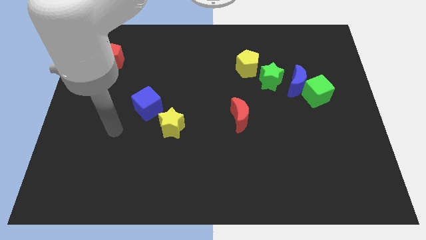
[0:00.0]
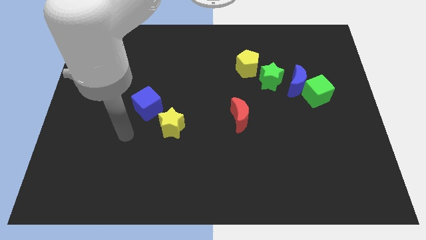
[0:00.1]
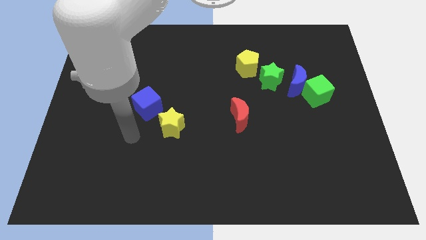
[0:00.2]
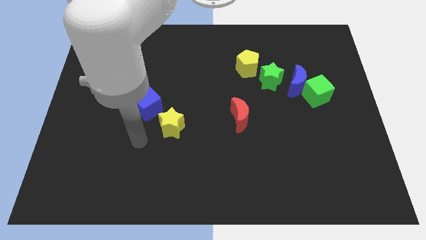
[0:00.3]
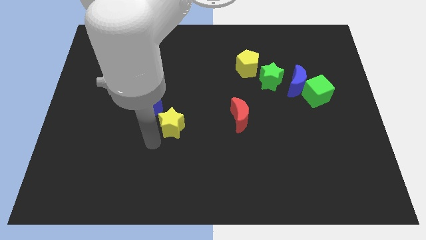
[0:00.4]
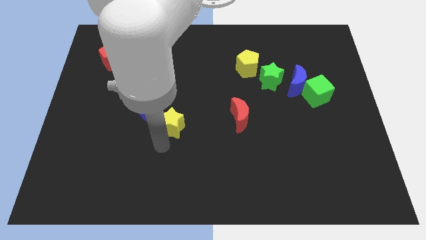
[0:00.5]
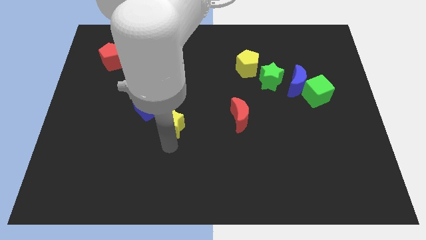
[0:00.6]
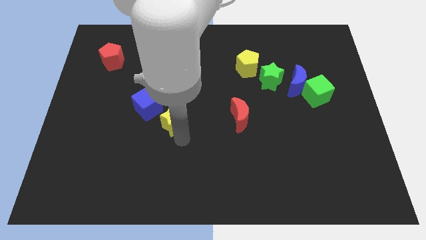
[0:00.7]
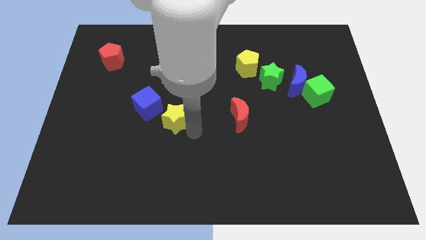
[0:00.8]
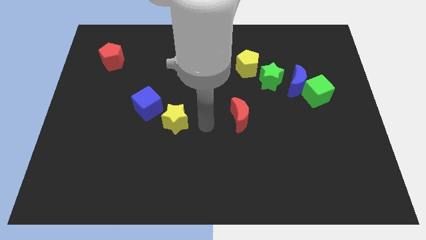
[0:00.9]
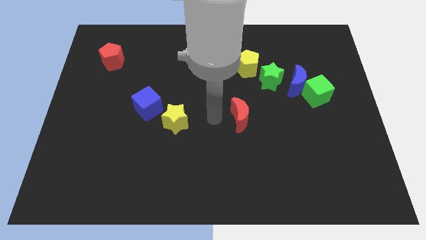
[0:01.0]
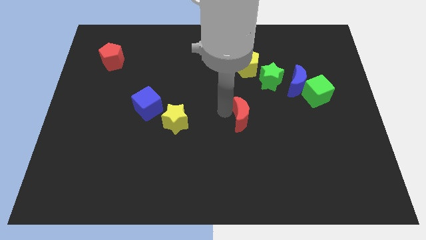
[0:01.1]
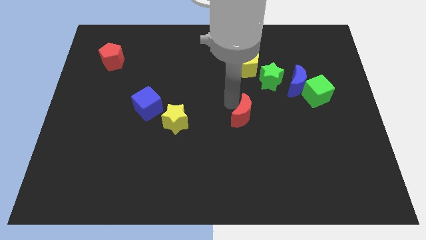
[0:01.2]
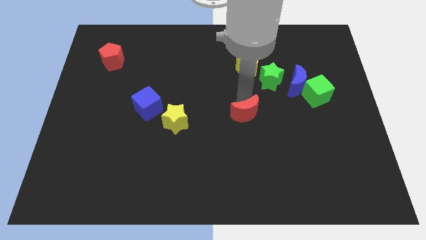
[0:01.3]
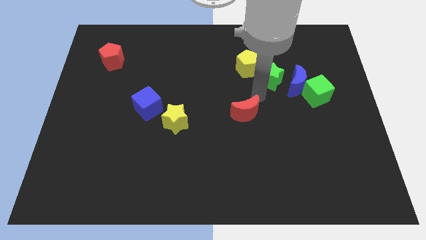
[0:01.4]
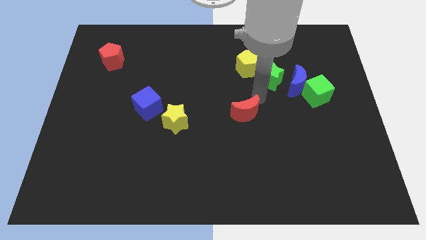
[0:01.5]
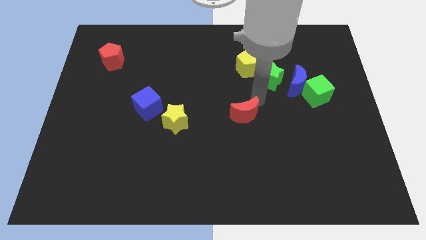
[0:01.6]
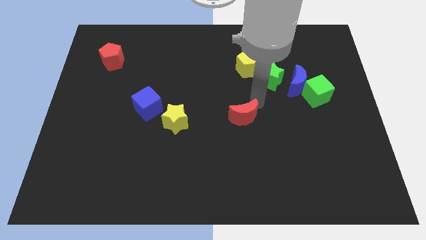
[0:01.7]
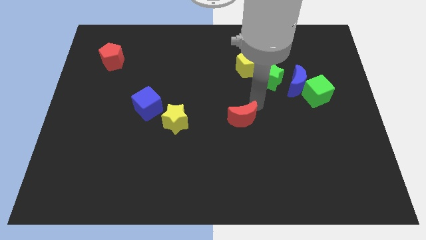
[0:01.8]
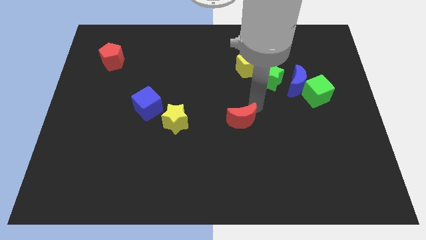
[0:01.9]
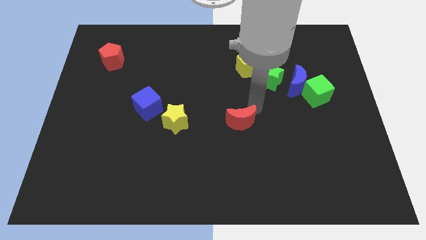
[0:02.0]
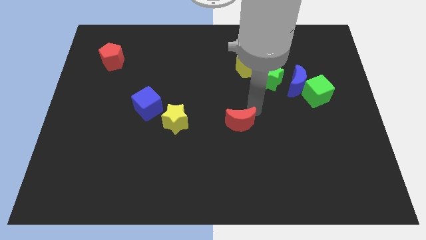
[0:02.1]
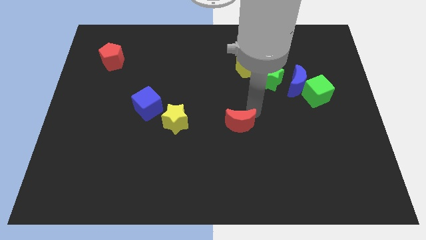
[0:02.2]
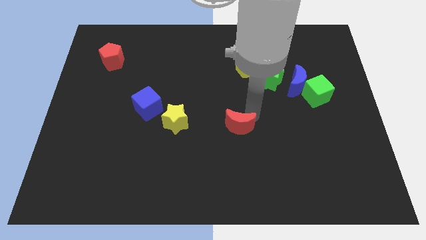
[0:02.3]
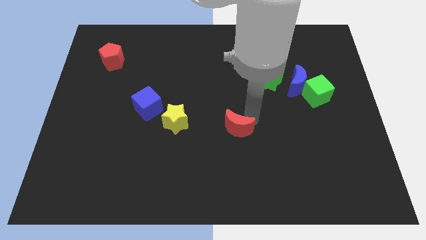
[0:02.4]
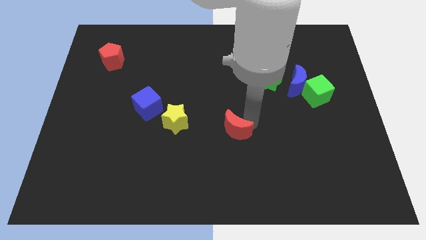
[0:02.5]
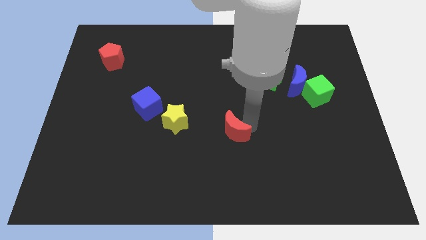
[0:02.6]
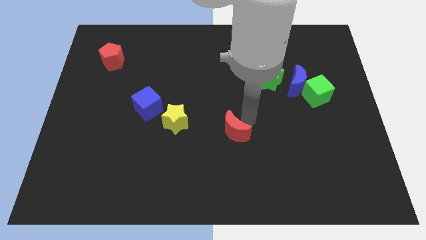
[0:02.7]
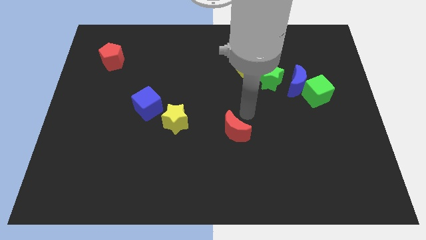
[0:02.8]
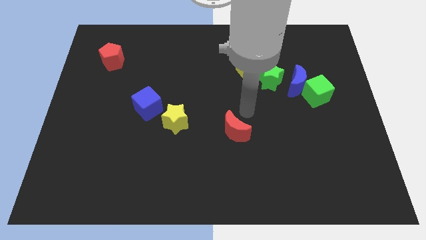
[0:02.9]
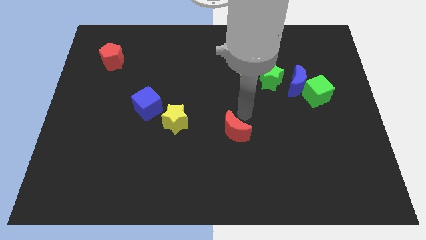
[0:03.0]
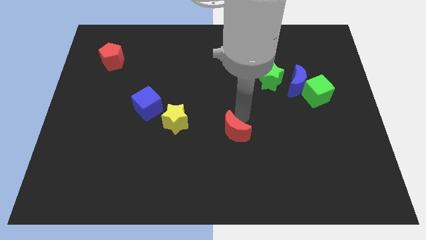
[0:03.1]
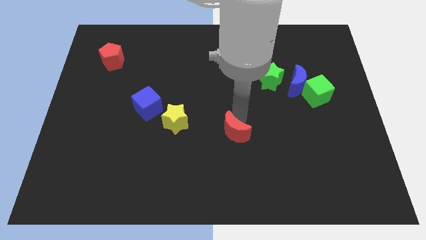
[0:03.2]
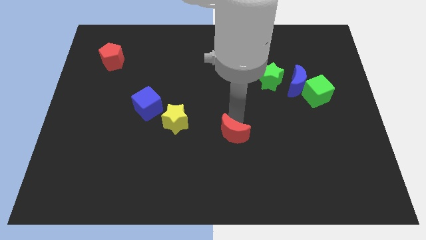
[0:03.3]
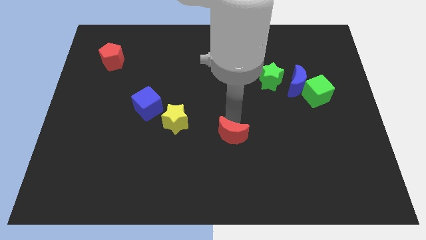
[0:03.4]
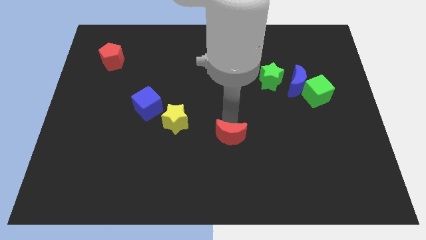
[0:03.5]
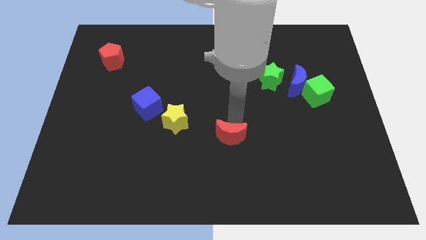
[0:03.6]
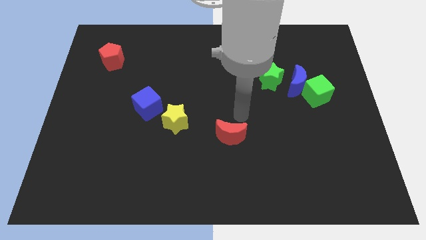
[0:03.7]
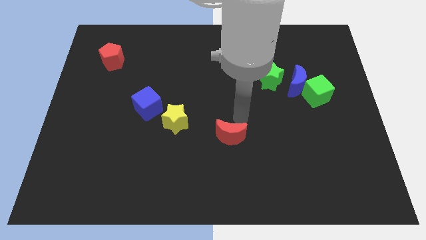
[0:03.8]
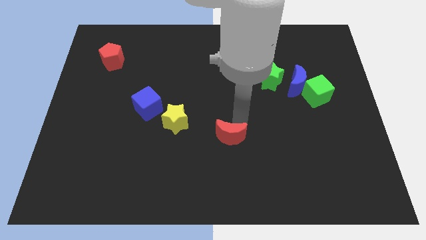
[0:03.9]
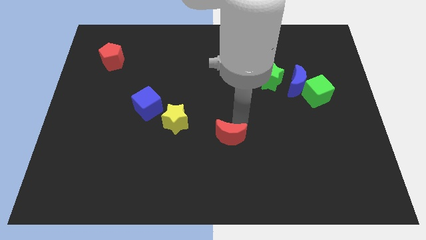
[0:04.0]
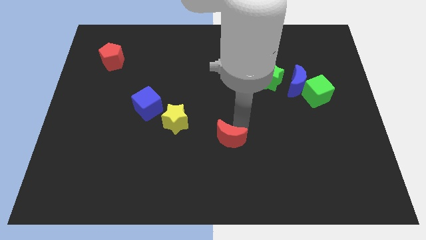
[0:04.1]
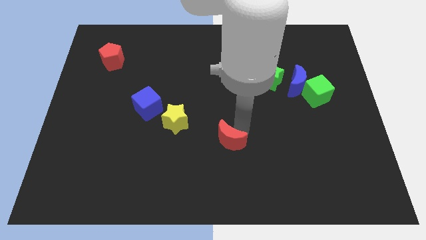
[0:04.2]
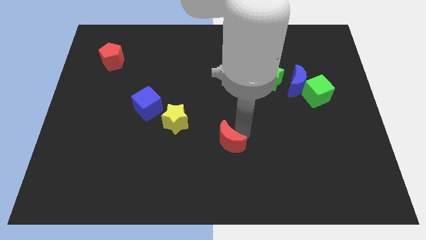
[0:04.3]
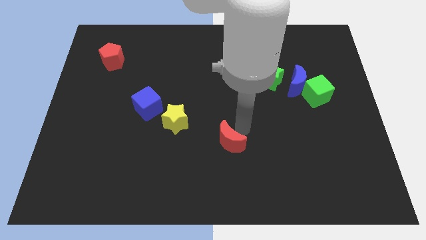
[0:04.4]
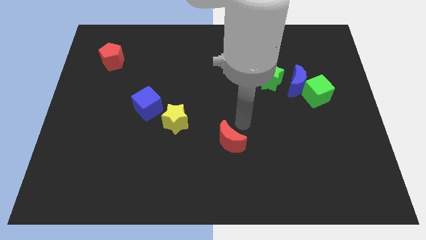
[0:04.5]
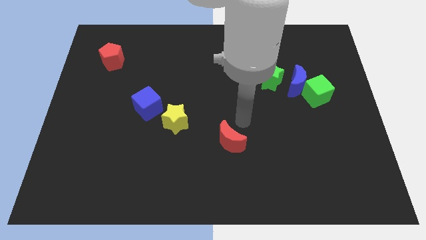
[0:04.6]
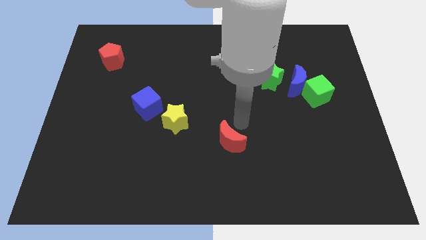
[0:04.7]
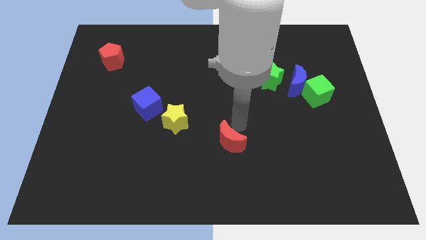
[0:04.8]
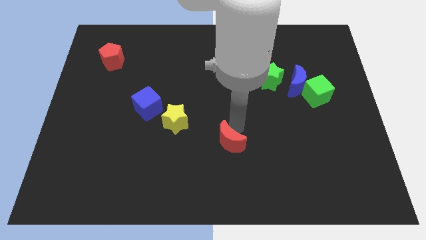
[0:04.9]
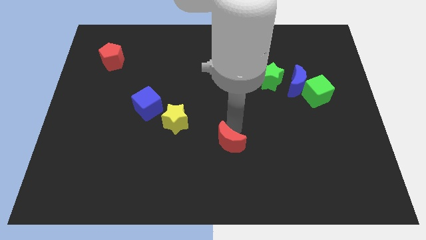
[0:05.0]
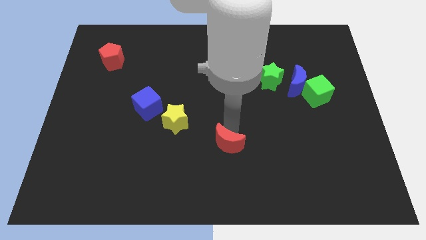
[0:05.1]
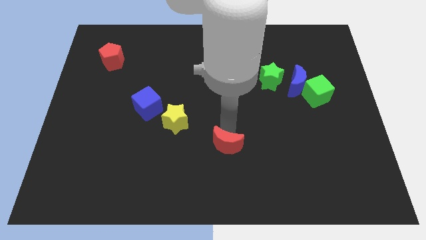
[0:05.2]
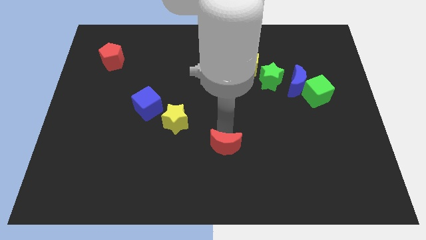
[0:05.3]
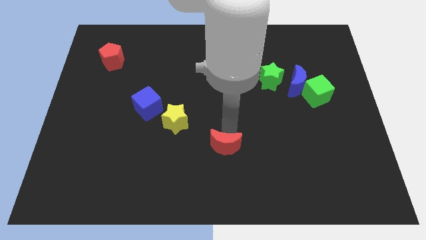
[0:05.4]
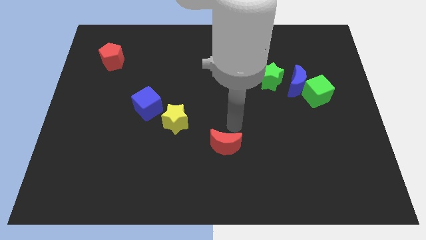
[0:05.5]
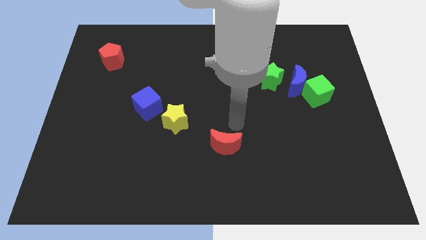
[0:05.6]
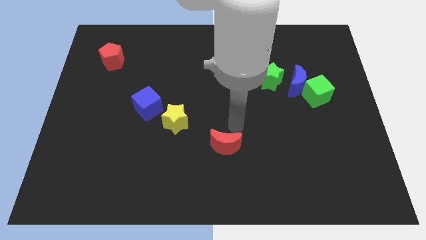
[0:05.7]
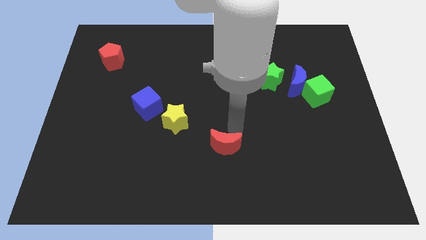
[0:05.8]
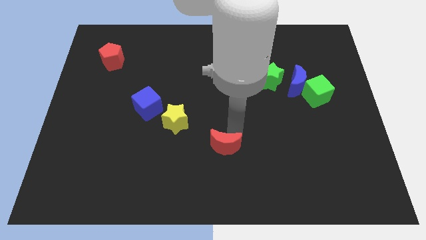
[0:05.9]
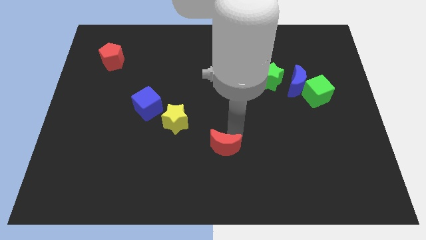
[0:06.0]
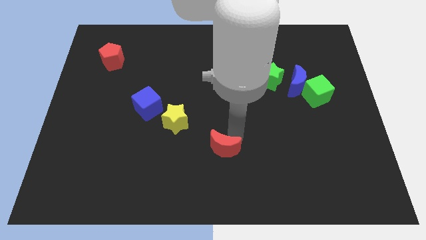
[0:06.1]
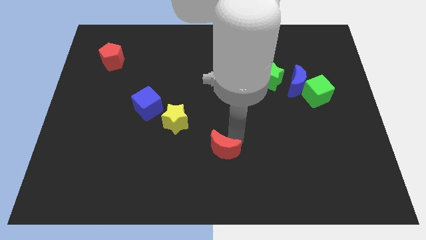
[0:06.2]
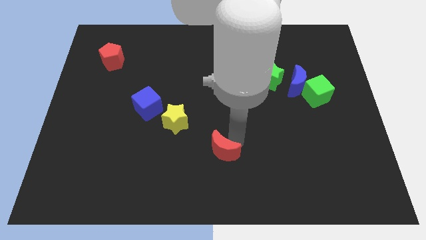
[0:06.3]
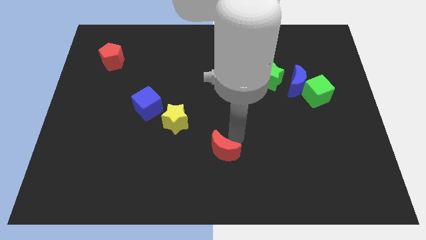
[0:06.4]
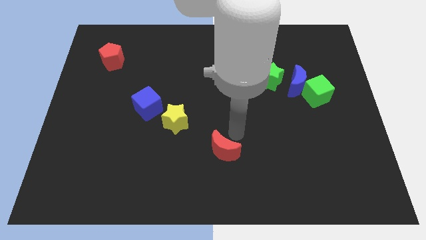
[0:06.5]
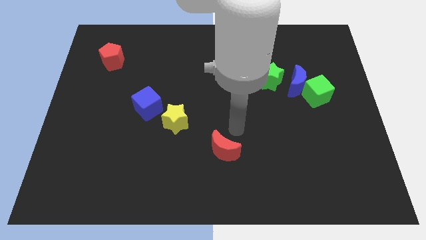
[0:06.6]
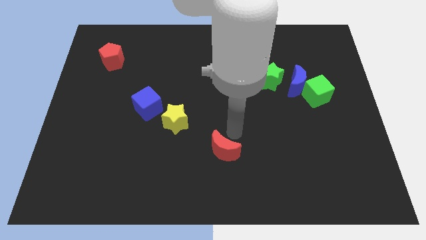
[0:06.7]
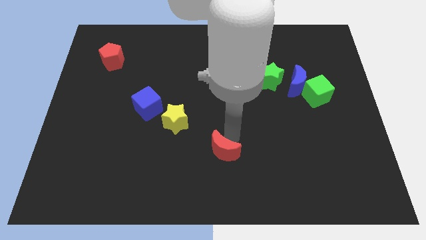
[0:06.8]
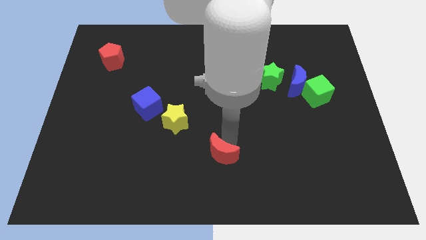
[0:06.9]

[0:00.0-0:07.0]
slide the red moon to the bottom side
